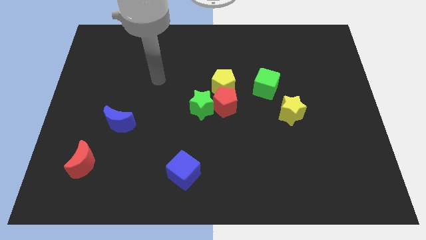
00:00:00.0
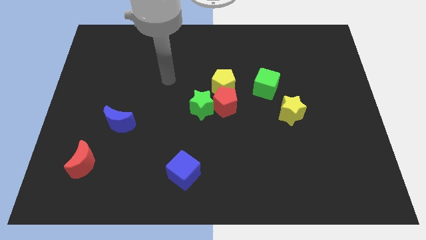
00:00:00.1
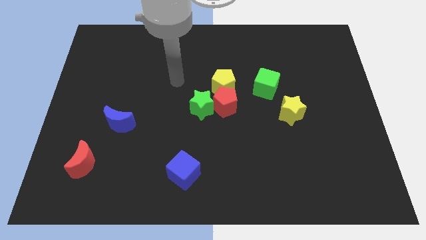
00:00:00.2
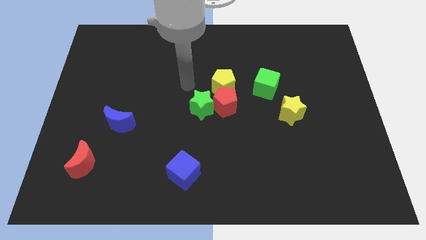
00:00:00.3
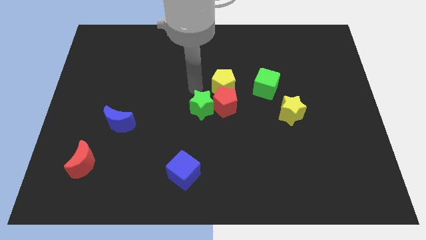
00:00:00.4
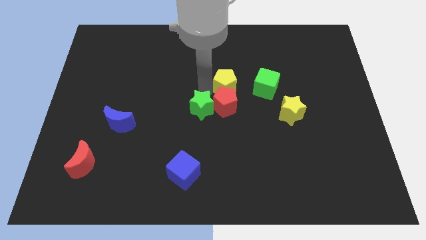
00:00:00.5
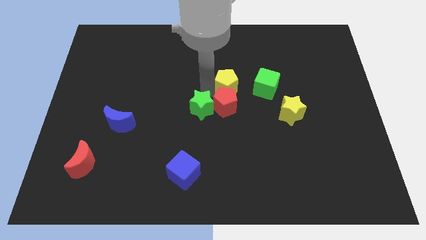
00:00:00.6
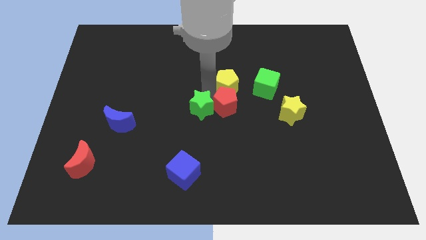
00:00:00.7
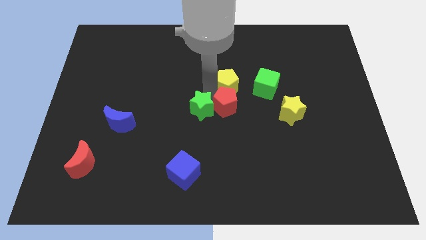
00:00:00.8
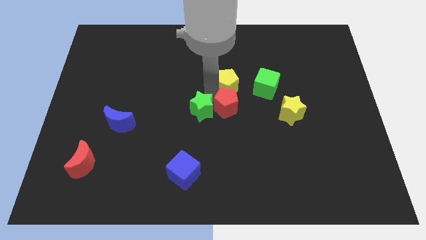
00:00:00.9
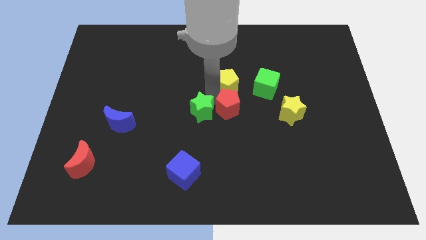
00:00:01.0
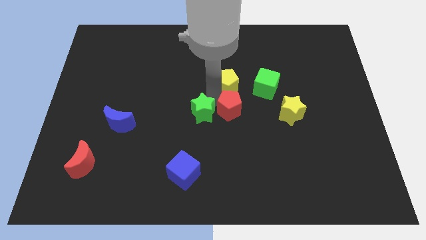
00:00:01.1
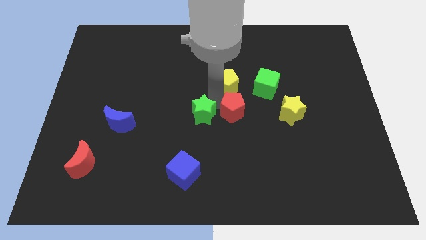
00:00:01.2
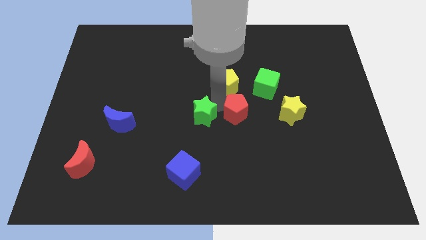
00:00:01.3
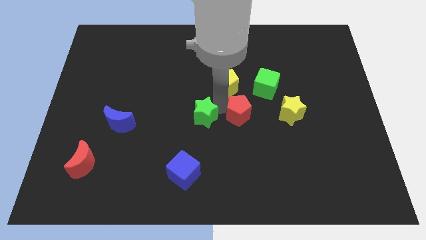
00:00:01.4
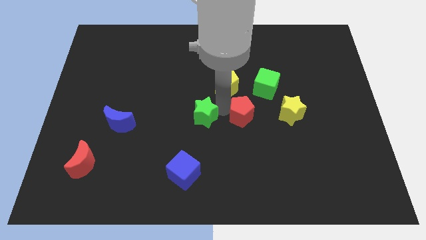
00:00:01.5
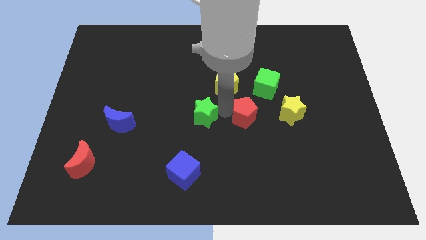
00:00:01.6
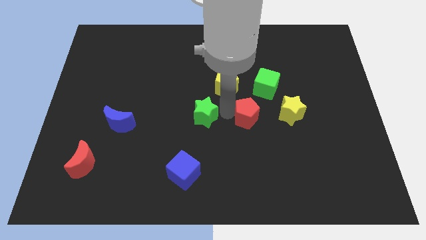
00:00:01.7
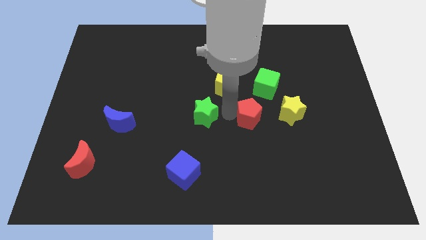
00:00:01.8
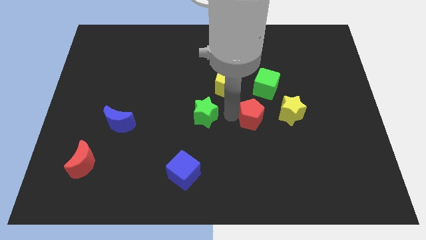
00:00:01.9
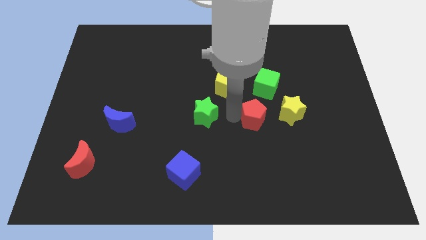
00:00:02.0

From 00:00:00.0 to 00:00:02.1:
pull the red pentagon apart from the yellow pentagon and green star

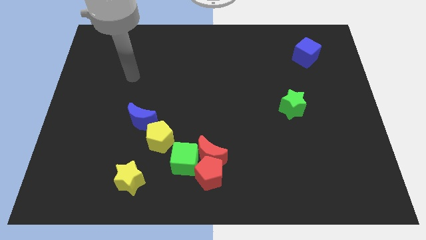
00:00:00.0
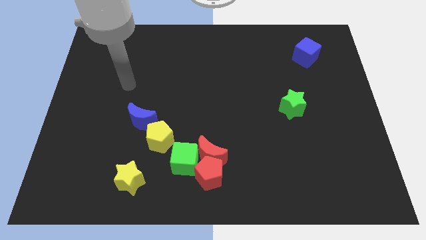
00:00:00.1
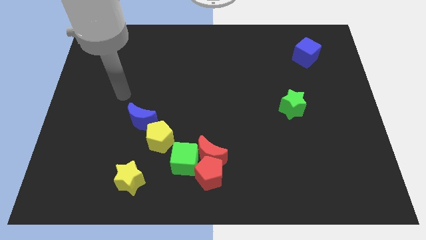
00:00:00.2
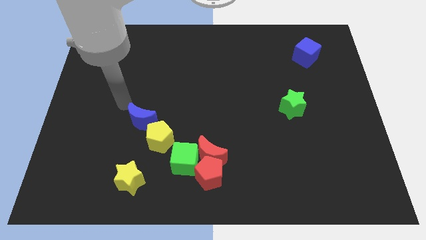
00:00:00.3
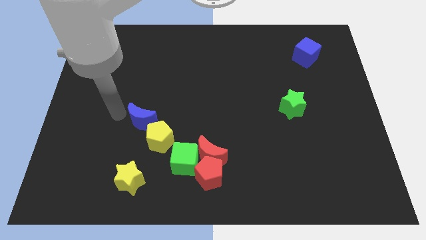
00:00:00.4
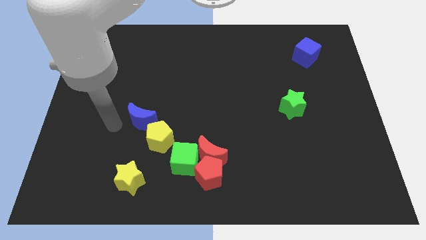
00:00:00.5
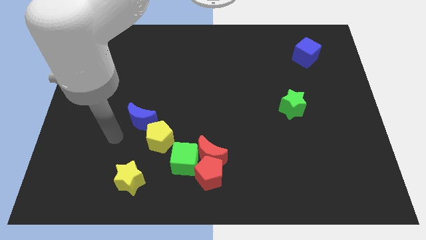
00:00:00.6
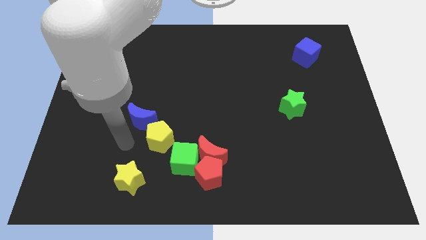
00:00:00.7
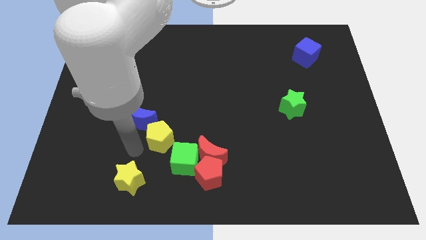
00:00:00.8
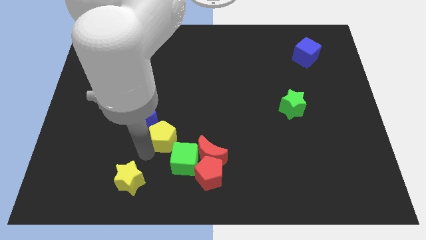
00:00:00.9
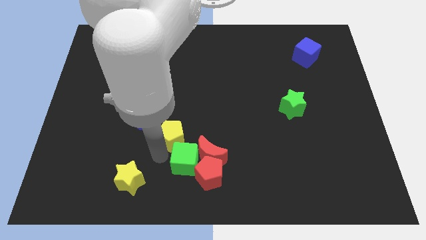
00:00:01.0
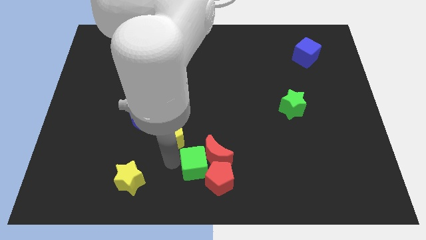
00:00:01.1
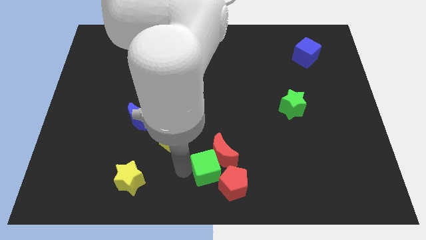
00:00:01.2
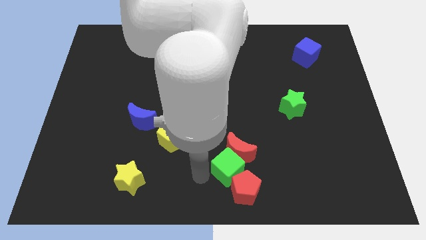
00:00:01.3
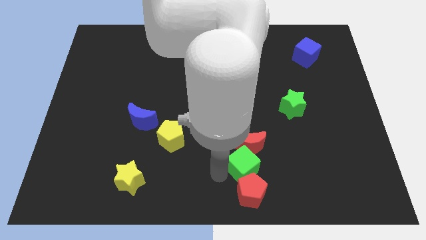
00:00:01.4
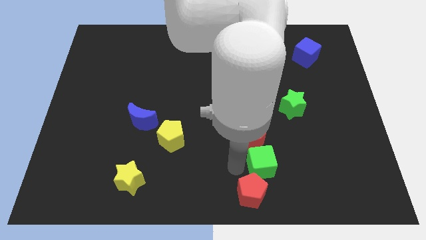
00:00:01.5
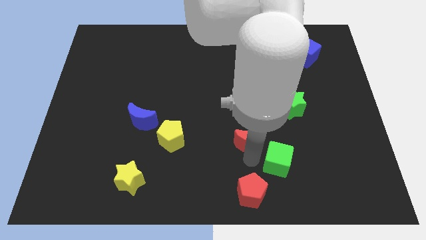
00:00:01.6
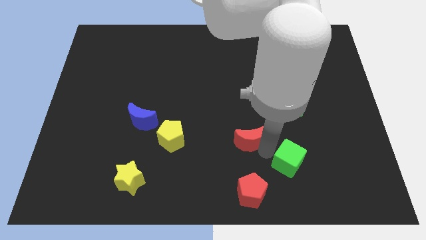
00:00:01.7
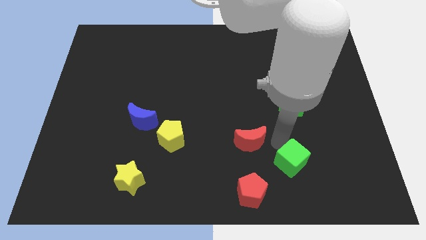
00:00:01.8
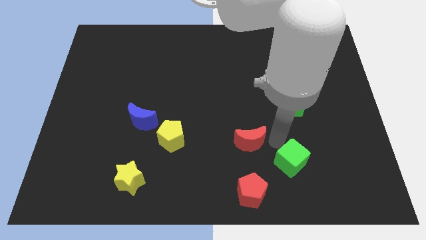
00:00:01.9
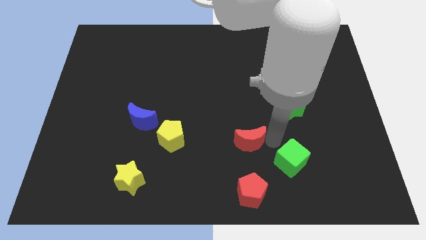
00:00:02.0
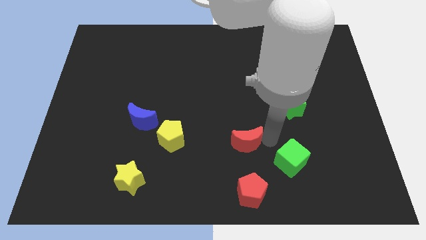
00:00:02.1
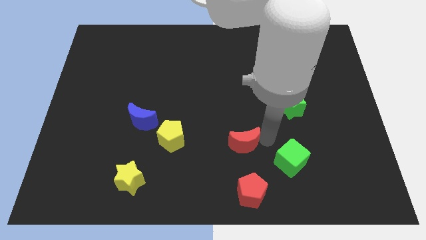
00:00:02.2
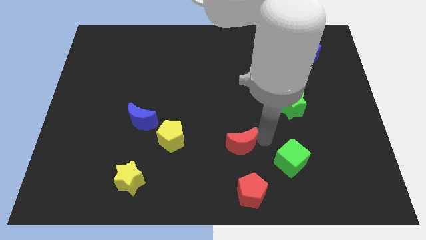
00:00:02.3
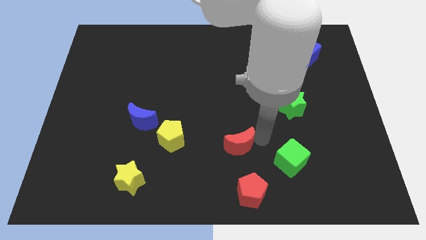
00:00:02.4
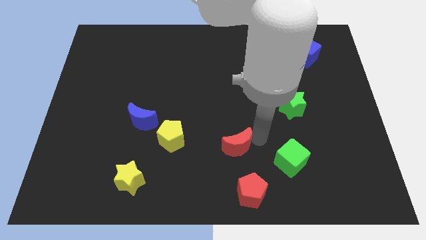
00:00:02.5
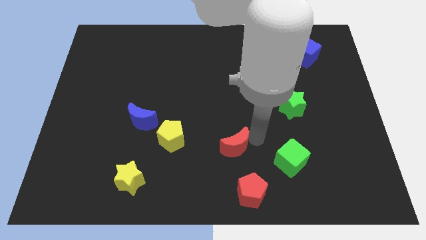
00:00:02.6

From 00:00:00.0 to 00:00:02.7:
pull the red moon apart from the red pentagon and green cube

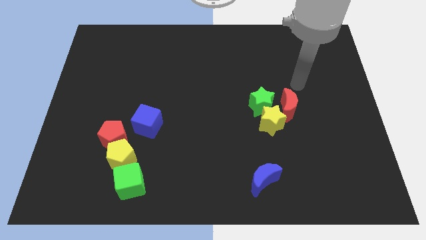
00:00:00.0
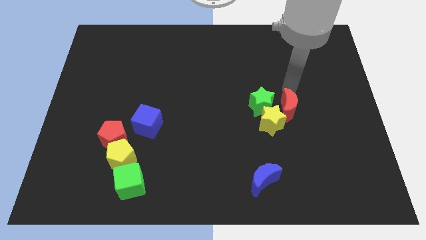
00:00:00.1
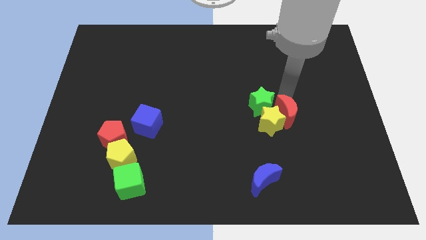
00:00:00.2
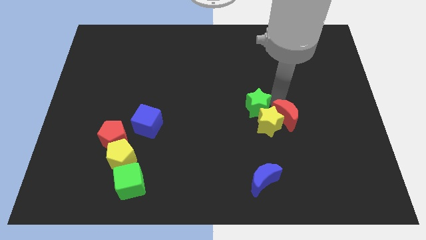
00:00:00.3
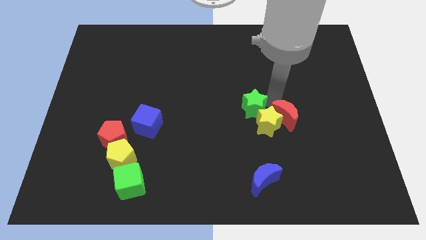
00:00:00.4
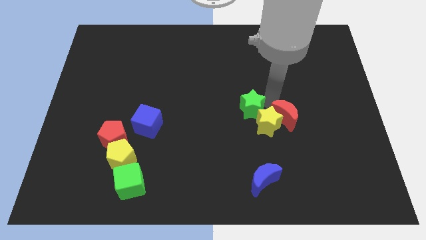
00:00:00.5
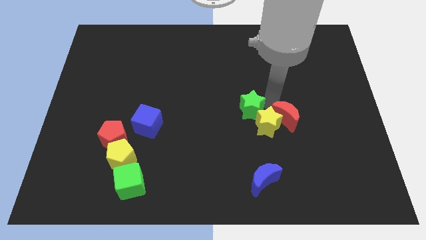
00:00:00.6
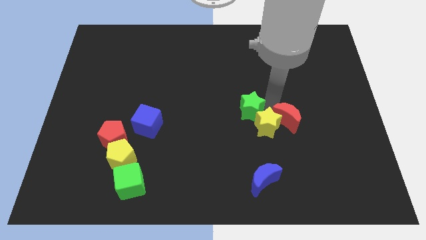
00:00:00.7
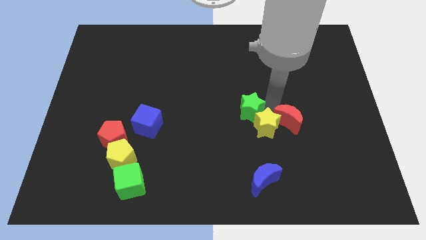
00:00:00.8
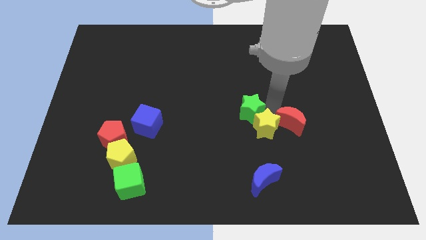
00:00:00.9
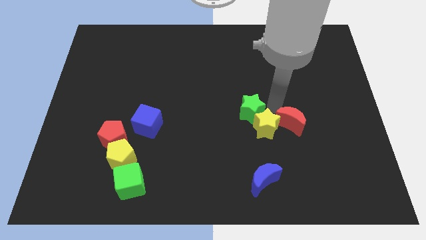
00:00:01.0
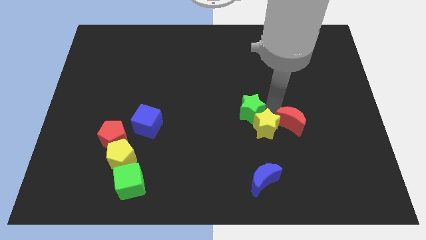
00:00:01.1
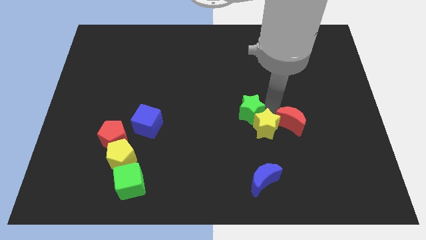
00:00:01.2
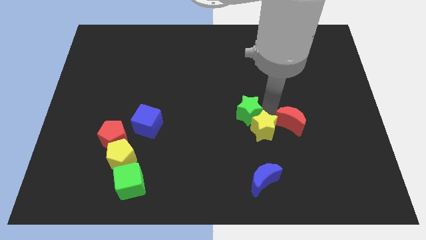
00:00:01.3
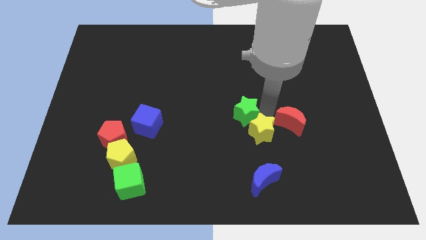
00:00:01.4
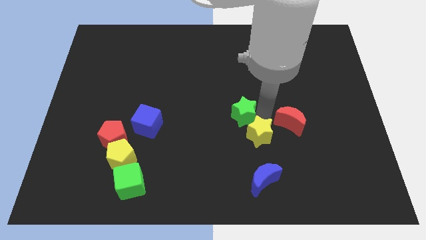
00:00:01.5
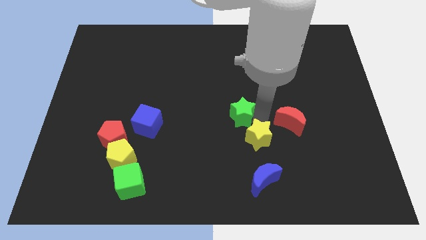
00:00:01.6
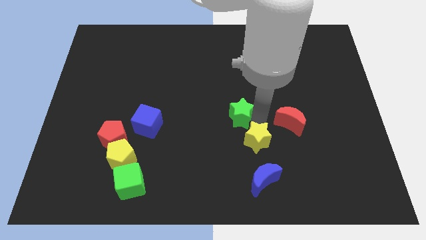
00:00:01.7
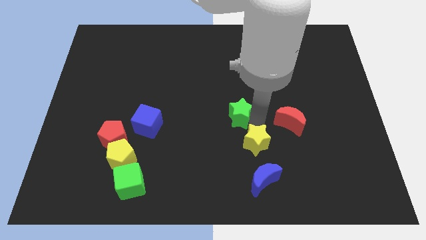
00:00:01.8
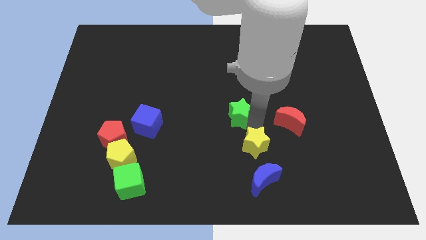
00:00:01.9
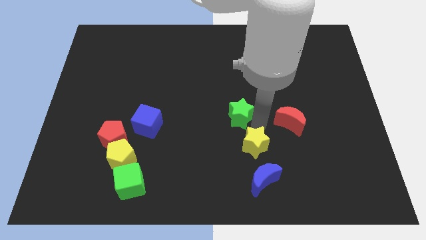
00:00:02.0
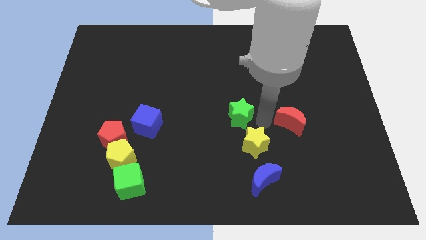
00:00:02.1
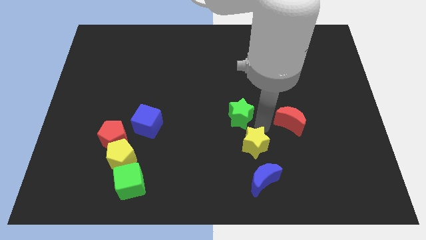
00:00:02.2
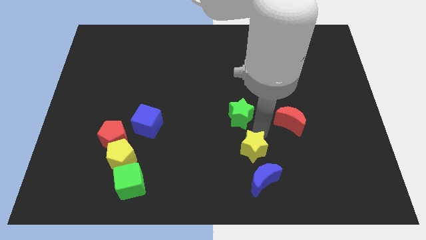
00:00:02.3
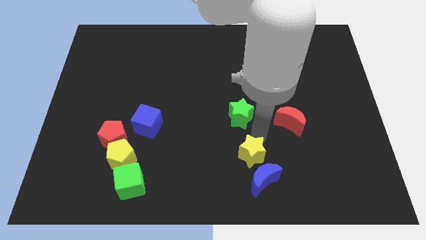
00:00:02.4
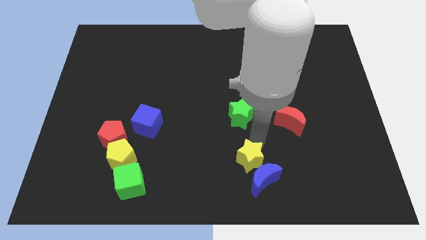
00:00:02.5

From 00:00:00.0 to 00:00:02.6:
move the yellow star away from the green star and red moon

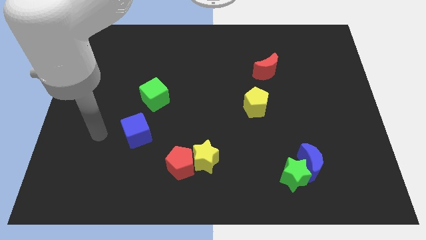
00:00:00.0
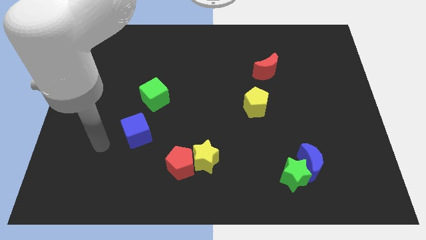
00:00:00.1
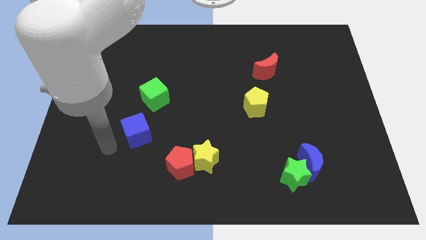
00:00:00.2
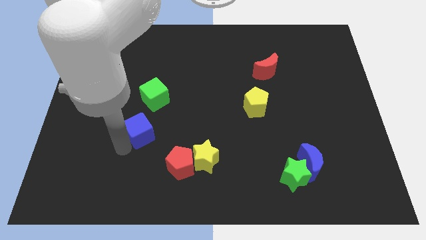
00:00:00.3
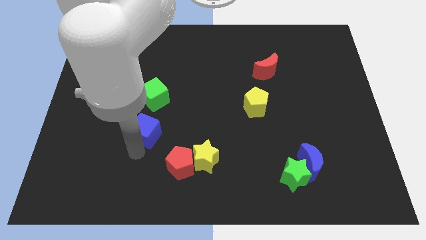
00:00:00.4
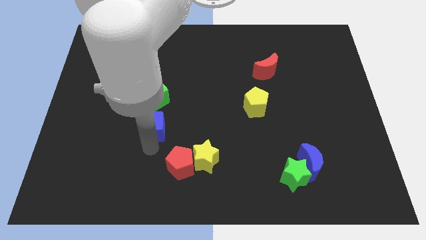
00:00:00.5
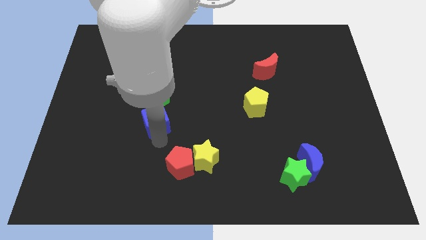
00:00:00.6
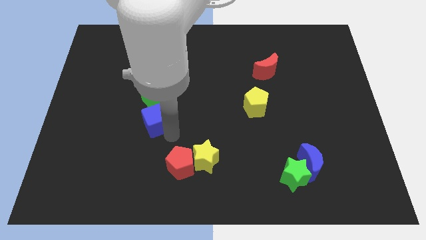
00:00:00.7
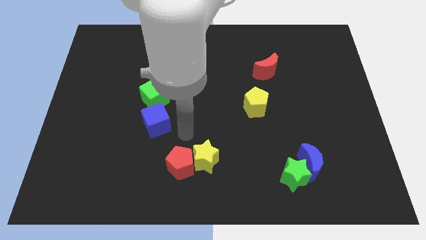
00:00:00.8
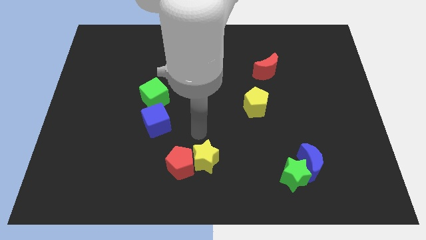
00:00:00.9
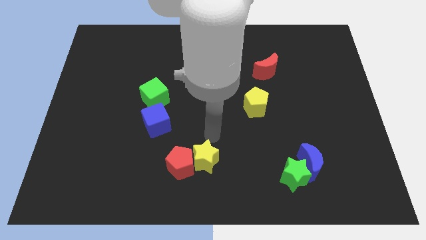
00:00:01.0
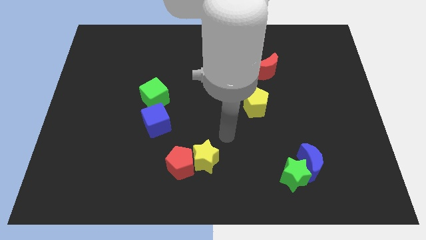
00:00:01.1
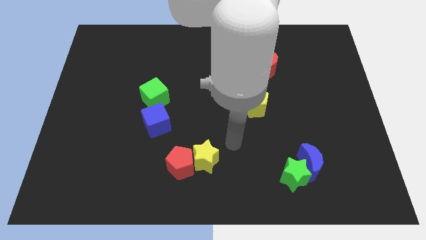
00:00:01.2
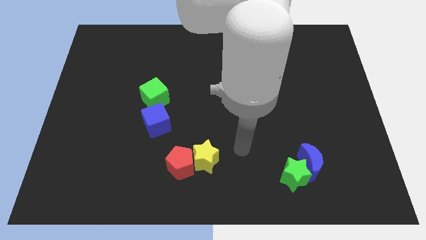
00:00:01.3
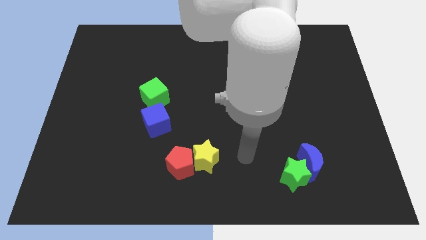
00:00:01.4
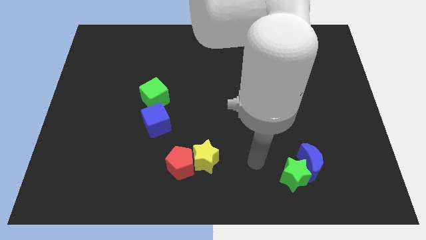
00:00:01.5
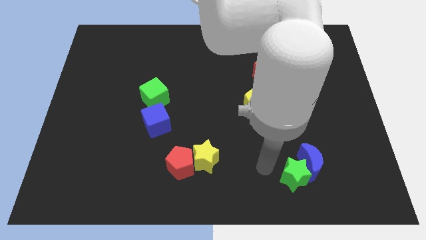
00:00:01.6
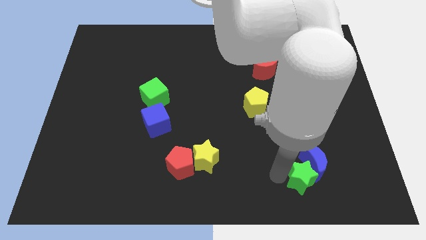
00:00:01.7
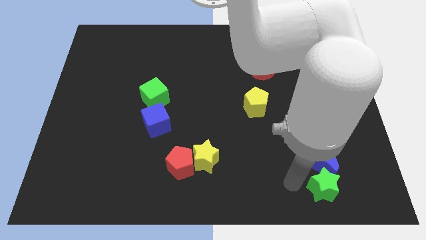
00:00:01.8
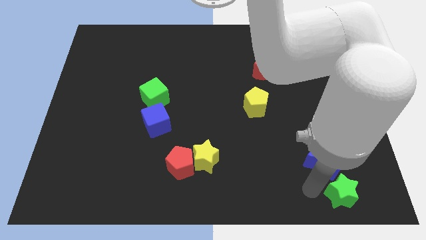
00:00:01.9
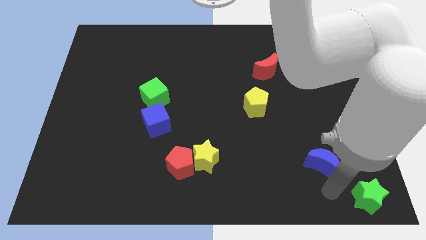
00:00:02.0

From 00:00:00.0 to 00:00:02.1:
separate the blue moon from the green star
